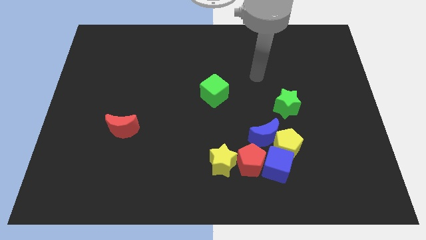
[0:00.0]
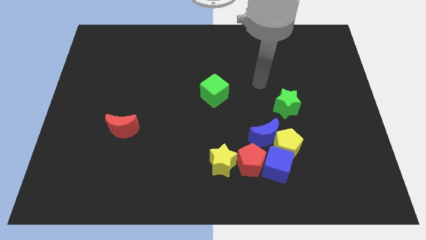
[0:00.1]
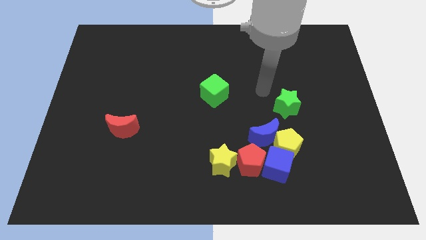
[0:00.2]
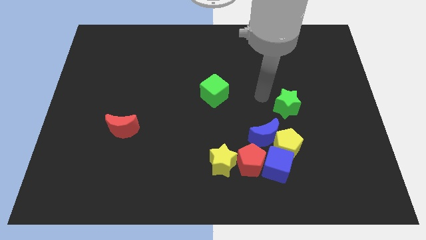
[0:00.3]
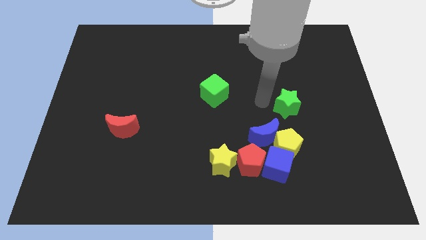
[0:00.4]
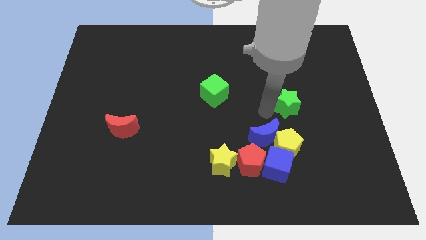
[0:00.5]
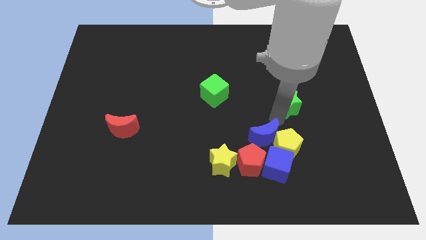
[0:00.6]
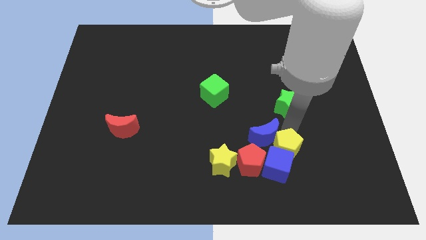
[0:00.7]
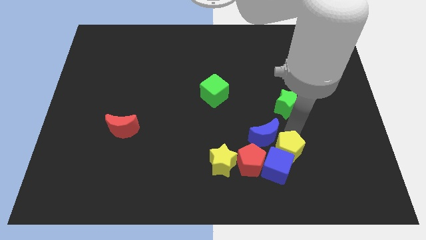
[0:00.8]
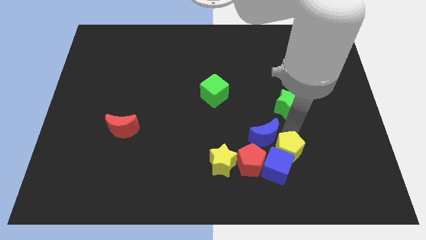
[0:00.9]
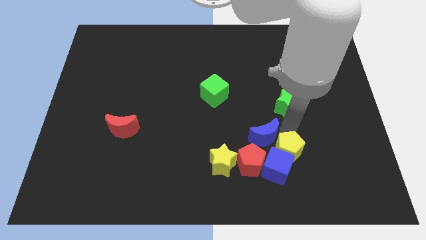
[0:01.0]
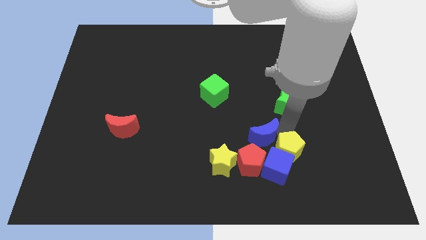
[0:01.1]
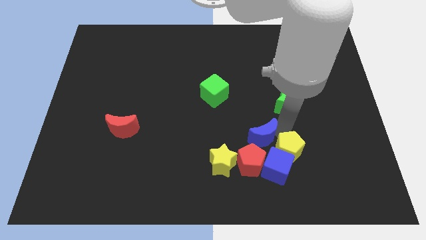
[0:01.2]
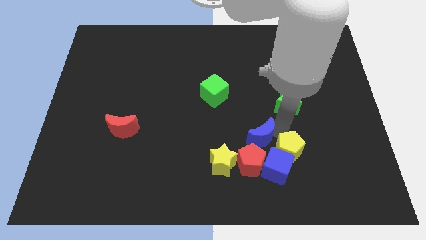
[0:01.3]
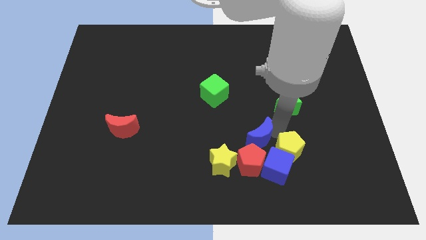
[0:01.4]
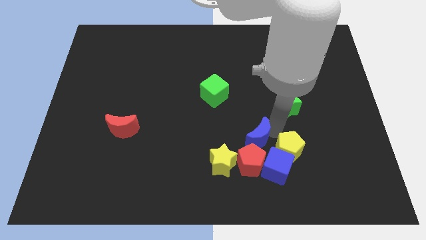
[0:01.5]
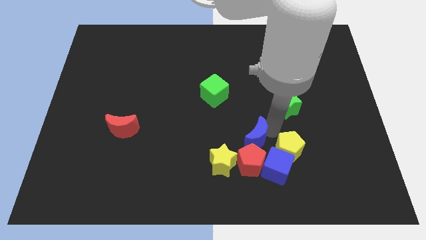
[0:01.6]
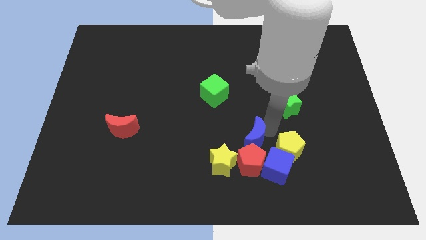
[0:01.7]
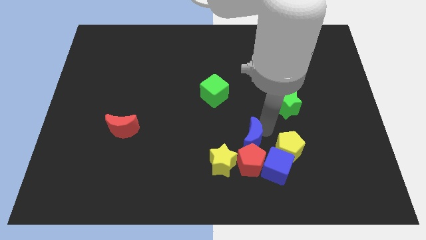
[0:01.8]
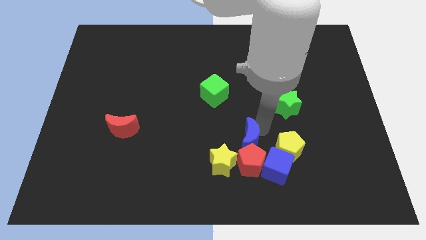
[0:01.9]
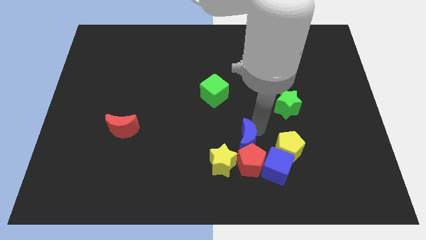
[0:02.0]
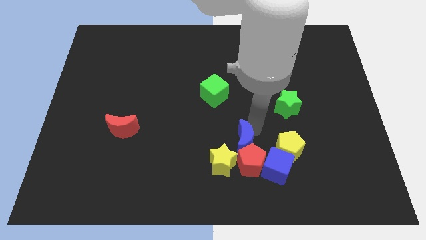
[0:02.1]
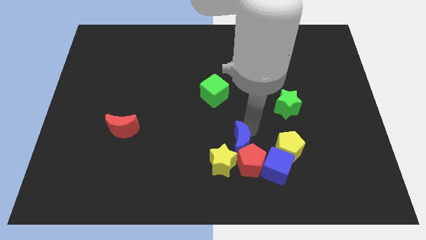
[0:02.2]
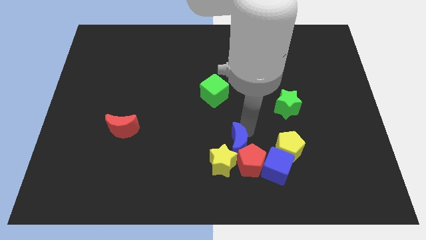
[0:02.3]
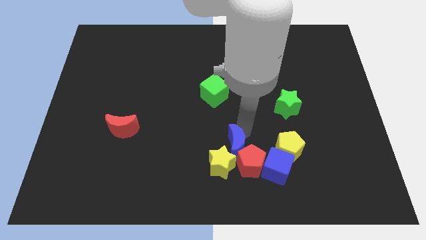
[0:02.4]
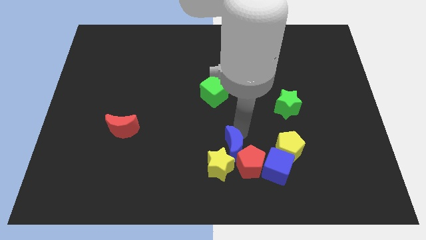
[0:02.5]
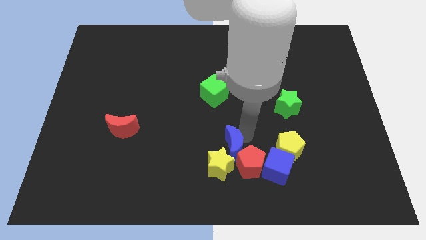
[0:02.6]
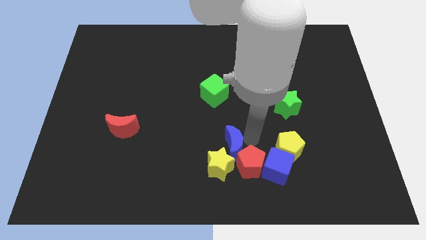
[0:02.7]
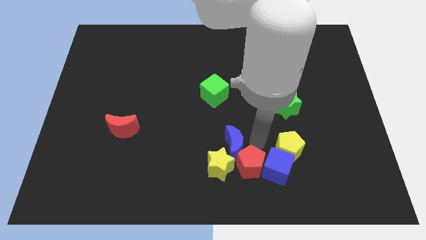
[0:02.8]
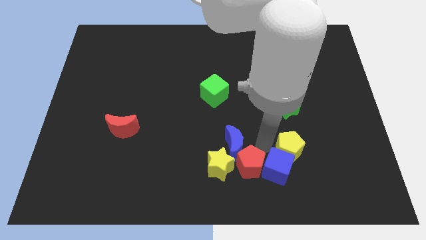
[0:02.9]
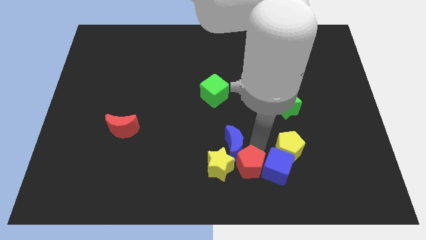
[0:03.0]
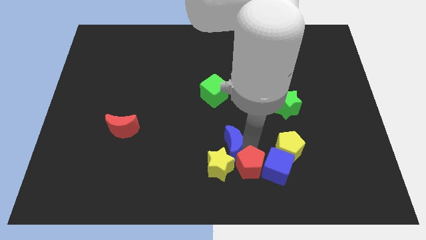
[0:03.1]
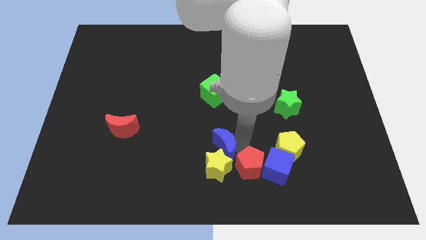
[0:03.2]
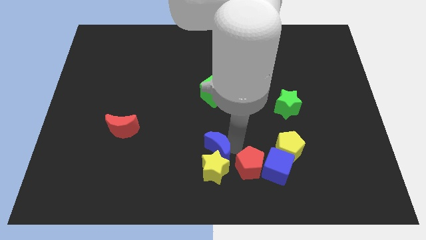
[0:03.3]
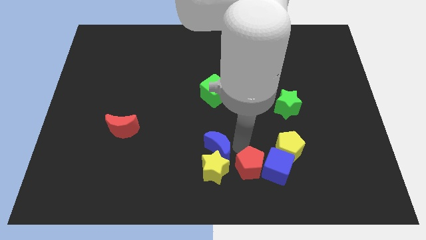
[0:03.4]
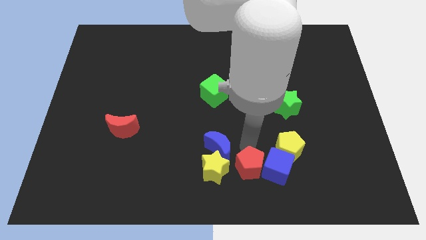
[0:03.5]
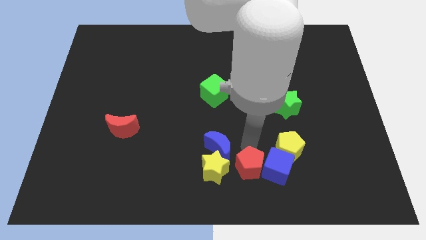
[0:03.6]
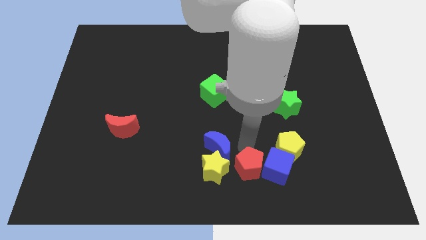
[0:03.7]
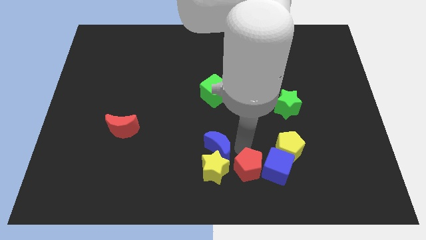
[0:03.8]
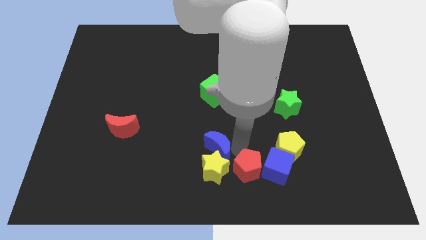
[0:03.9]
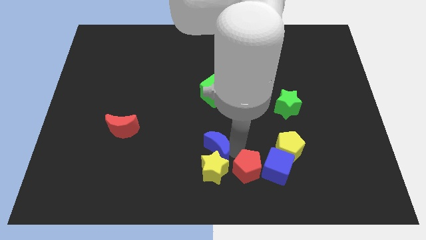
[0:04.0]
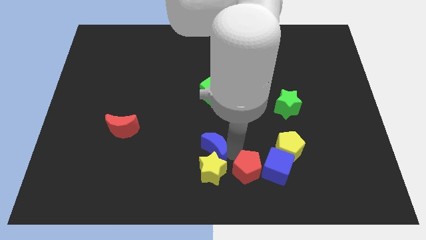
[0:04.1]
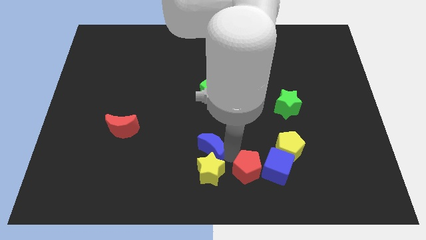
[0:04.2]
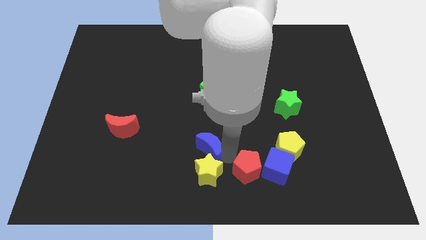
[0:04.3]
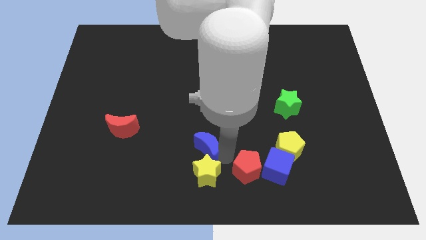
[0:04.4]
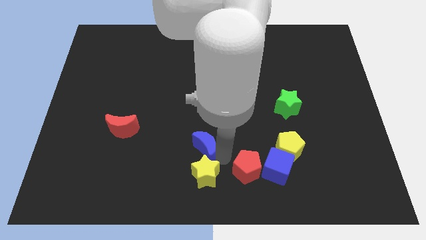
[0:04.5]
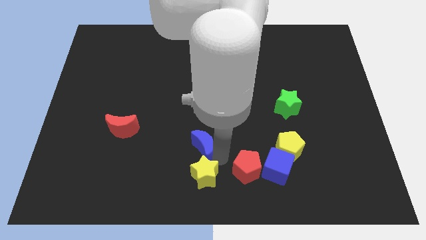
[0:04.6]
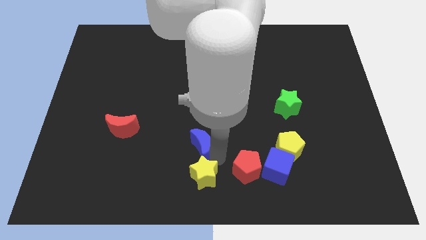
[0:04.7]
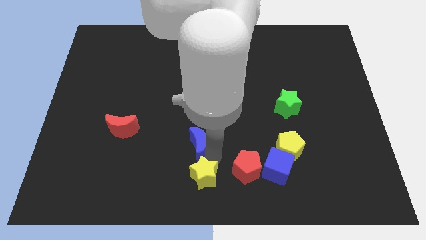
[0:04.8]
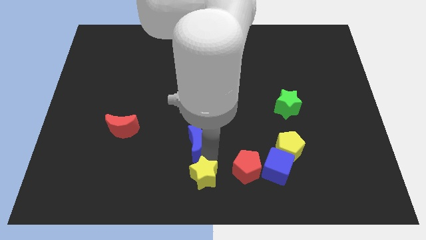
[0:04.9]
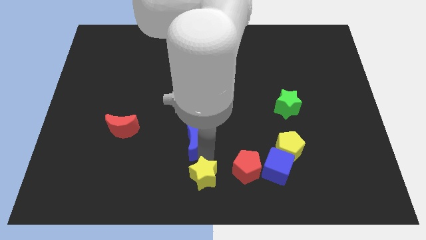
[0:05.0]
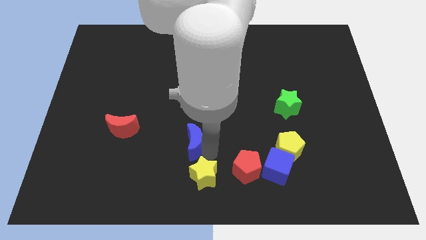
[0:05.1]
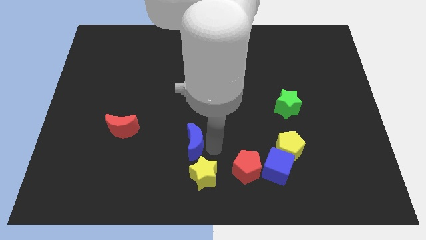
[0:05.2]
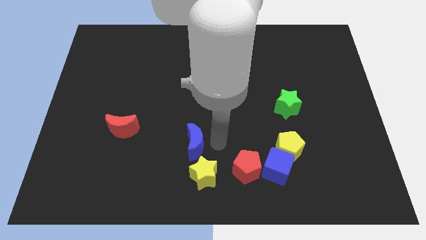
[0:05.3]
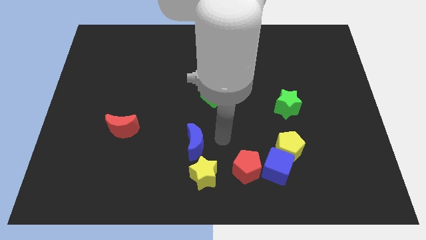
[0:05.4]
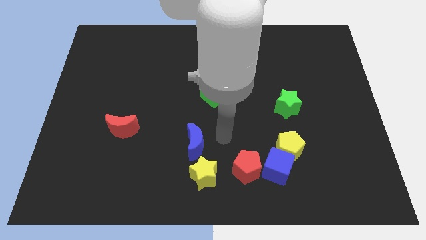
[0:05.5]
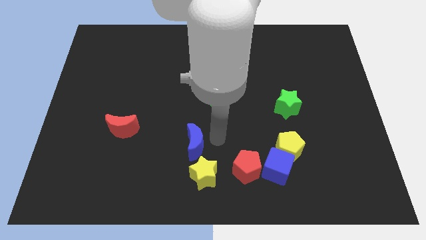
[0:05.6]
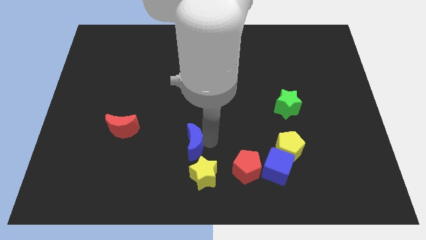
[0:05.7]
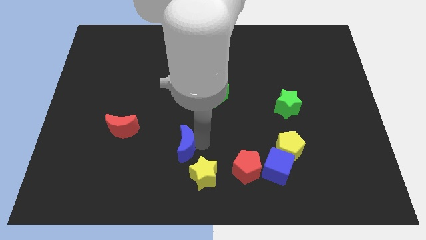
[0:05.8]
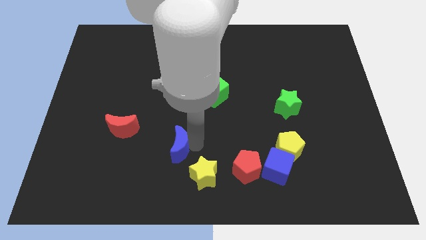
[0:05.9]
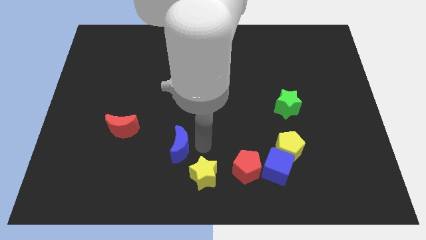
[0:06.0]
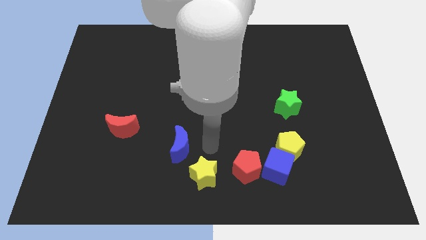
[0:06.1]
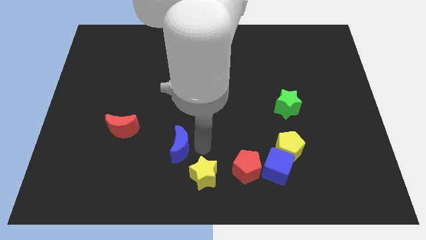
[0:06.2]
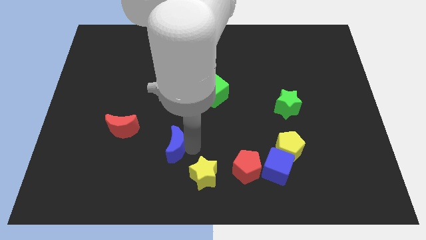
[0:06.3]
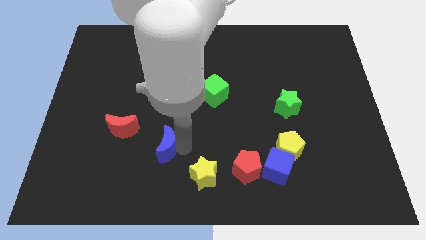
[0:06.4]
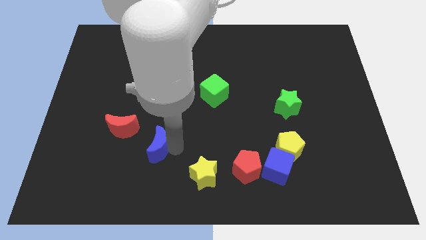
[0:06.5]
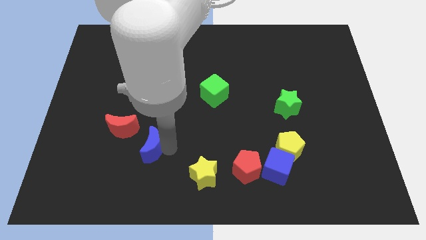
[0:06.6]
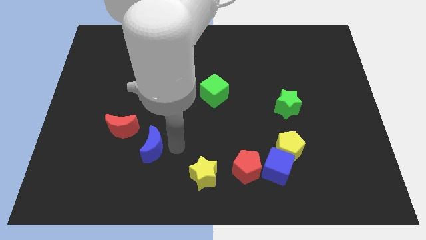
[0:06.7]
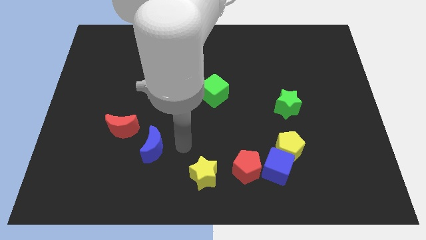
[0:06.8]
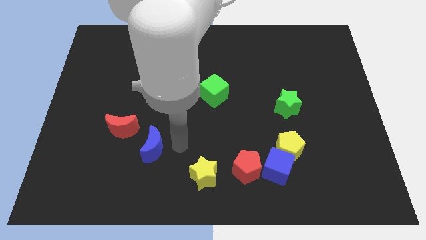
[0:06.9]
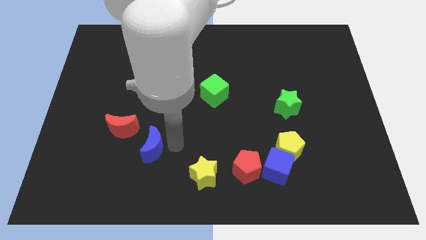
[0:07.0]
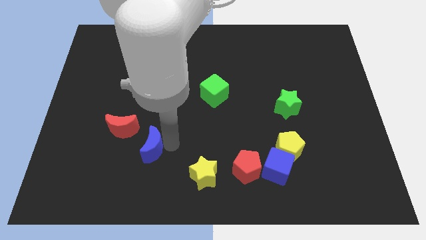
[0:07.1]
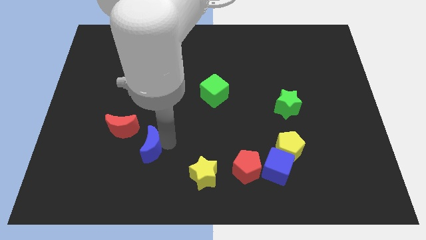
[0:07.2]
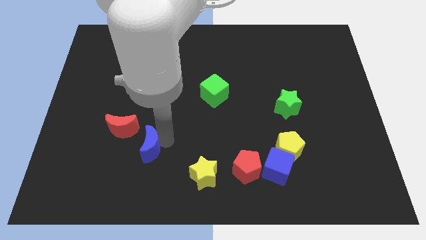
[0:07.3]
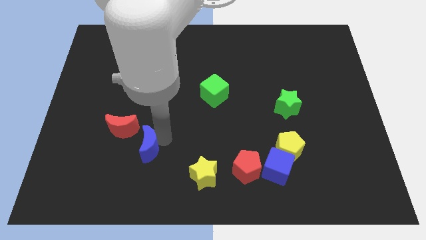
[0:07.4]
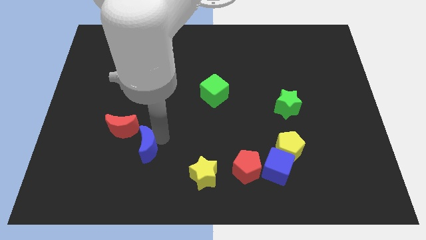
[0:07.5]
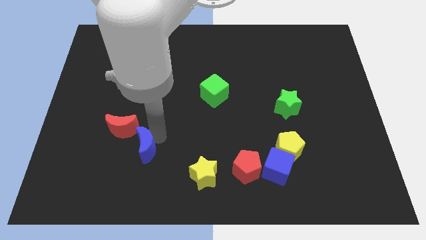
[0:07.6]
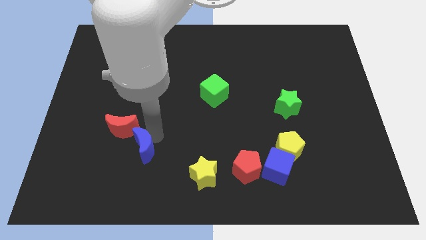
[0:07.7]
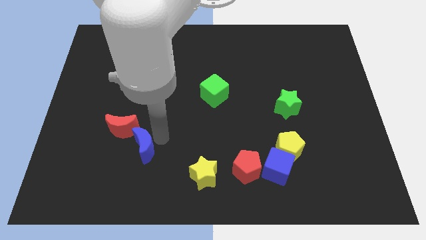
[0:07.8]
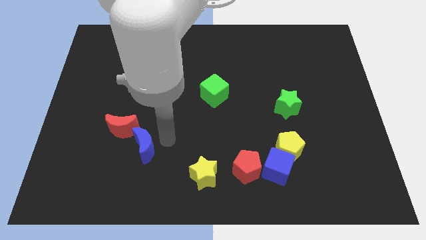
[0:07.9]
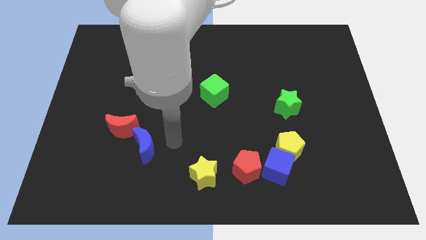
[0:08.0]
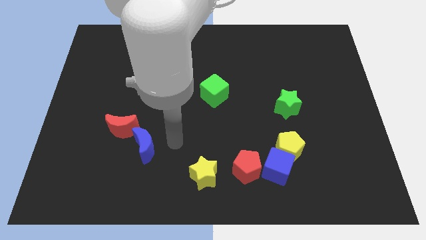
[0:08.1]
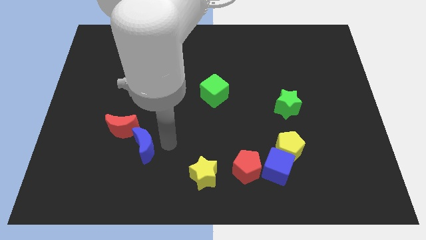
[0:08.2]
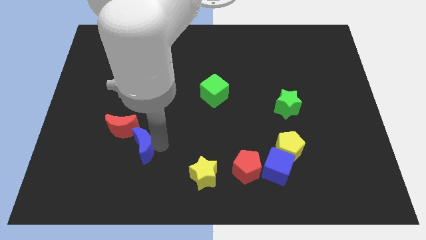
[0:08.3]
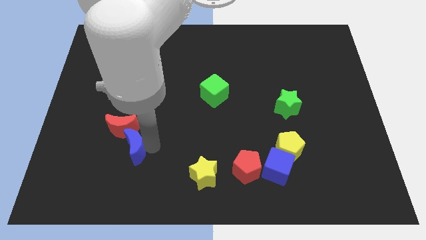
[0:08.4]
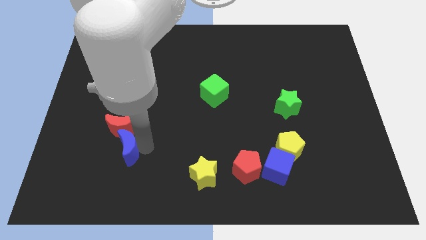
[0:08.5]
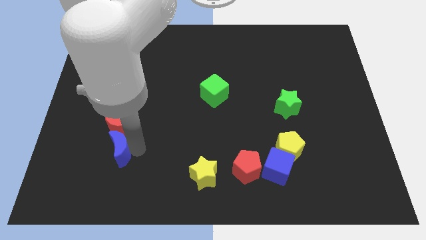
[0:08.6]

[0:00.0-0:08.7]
move the blue moon to the bottom left side of the red moon
